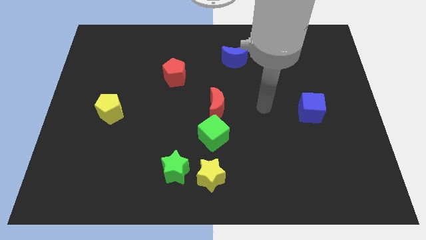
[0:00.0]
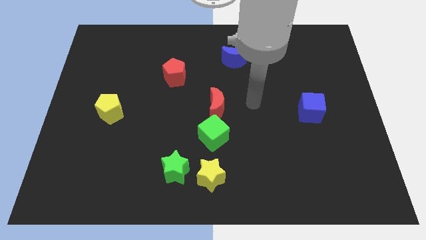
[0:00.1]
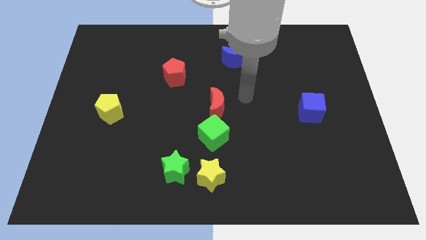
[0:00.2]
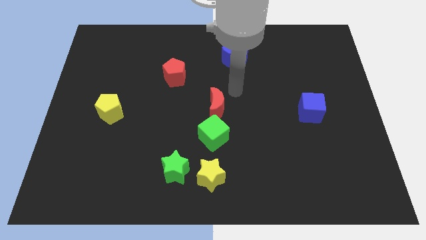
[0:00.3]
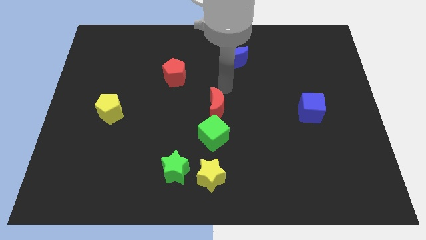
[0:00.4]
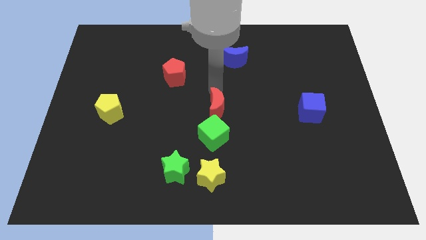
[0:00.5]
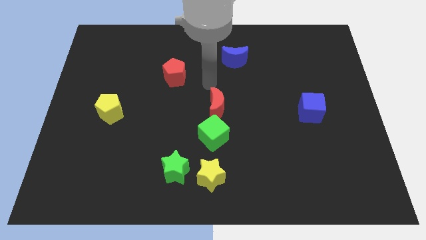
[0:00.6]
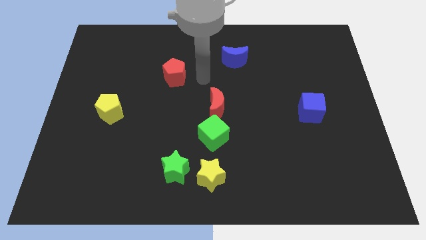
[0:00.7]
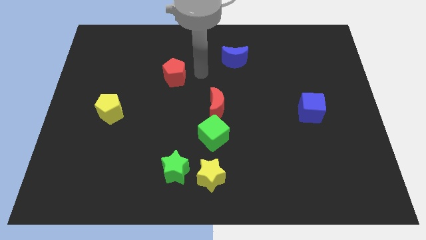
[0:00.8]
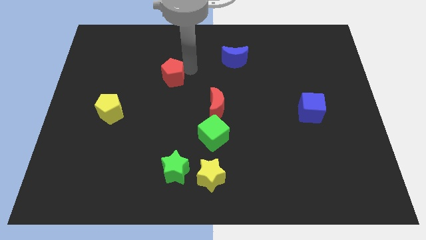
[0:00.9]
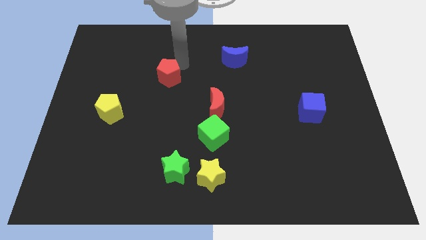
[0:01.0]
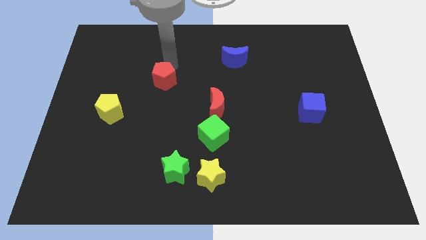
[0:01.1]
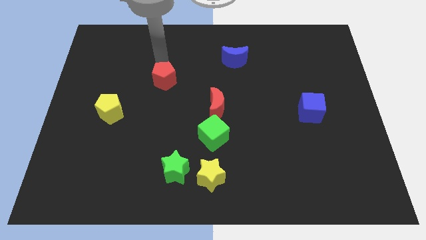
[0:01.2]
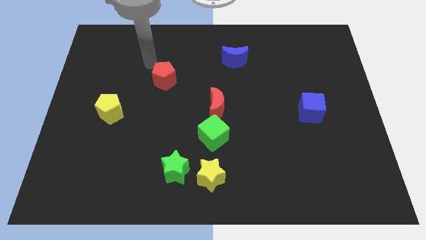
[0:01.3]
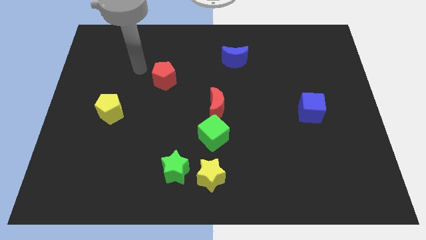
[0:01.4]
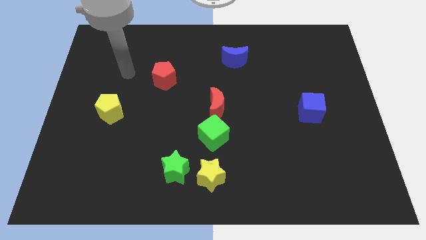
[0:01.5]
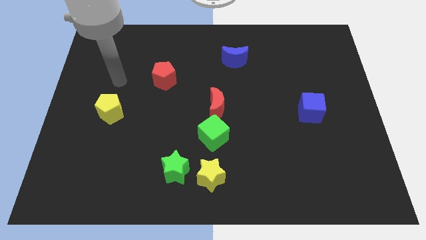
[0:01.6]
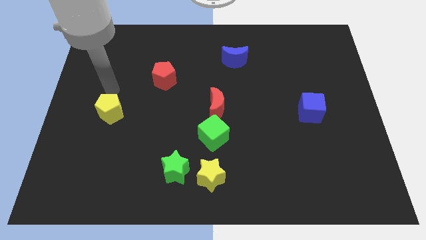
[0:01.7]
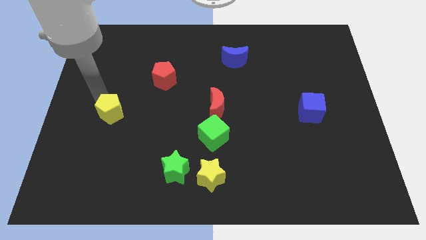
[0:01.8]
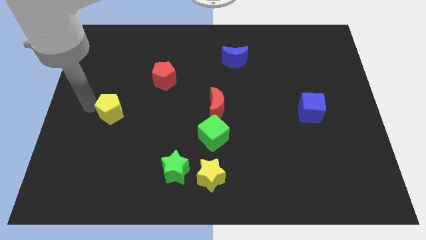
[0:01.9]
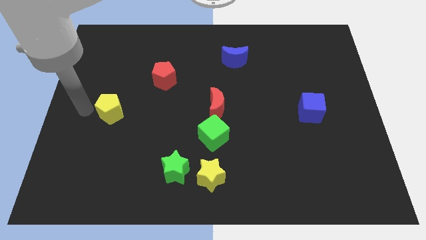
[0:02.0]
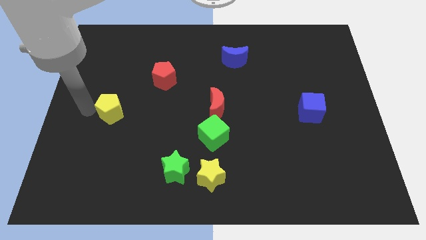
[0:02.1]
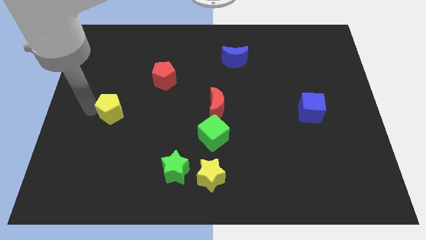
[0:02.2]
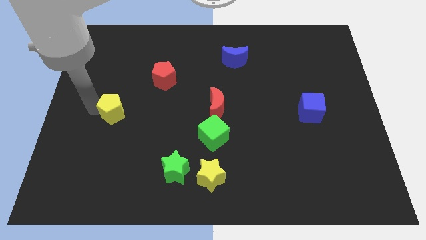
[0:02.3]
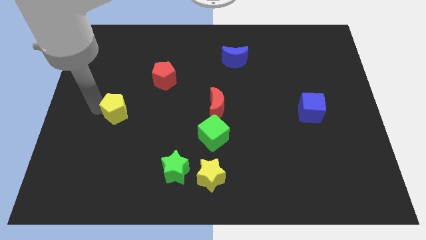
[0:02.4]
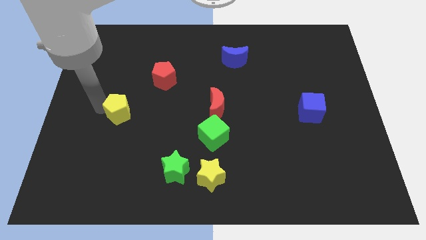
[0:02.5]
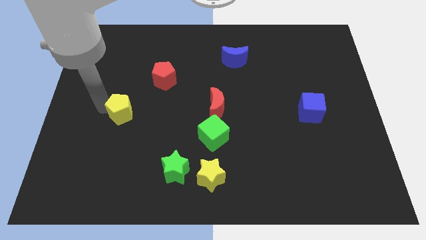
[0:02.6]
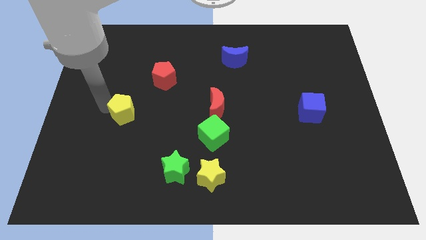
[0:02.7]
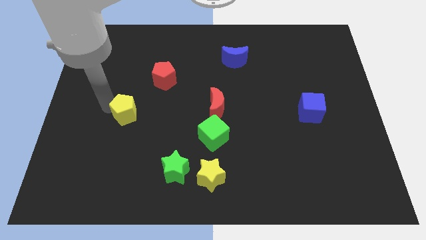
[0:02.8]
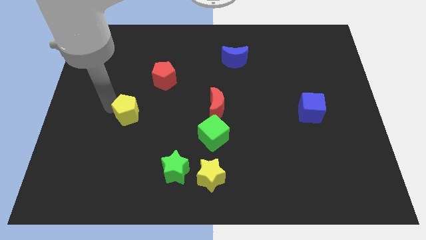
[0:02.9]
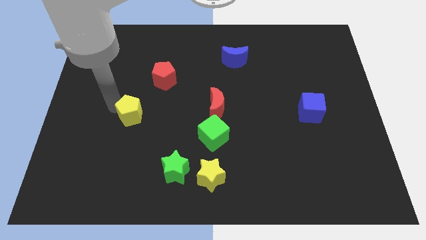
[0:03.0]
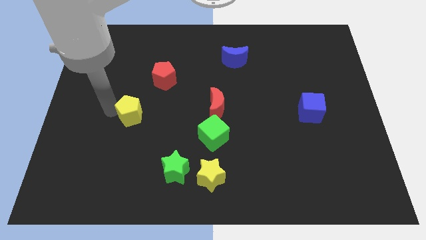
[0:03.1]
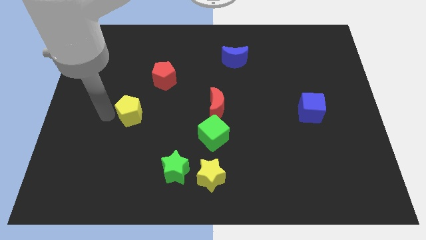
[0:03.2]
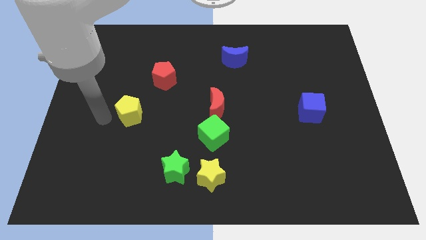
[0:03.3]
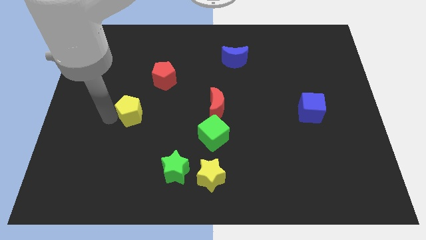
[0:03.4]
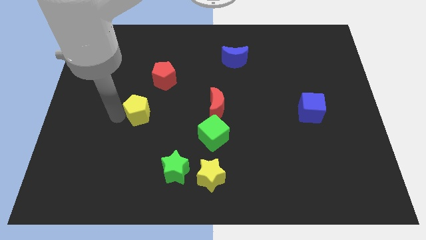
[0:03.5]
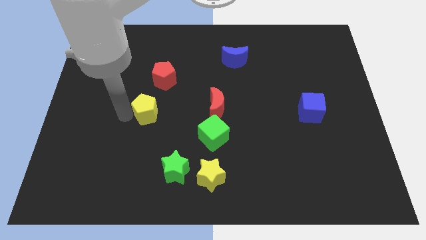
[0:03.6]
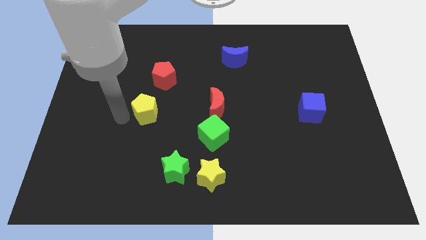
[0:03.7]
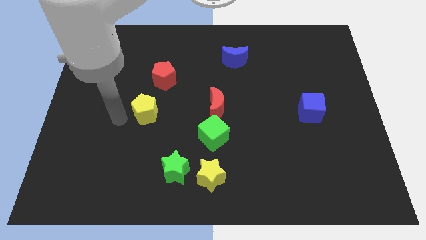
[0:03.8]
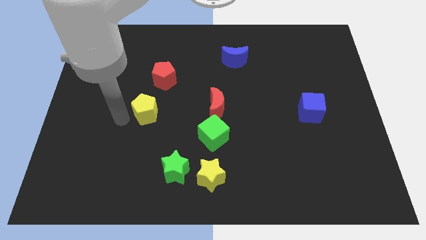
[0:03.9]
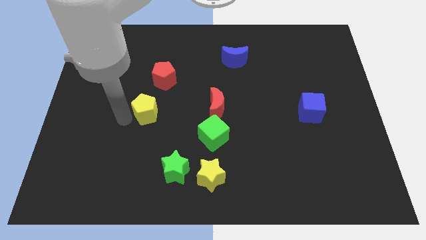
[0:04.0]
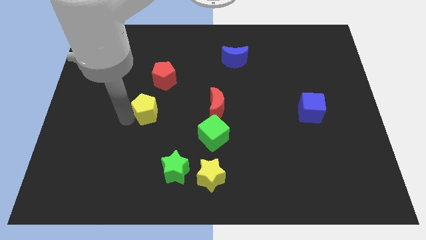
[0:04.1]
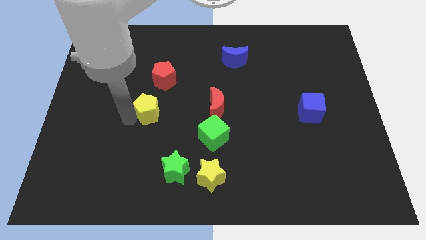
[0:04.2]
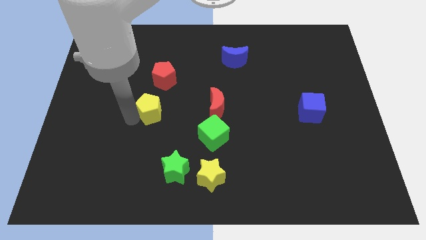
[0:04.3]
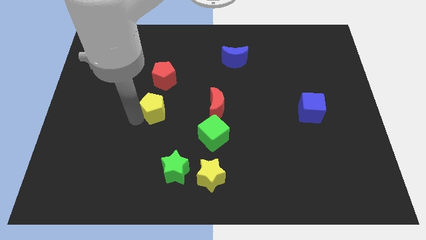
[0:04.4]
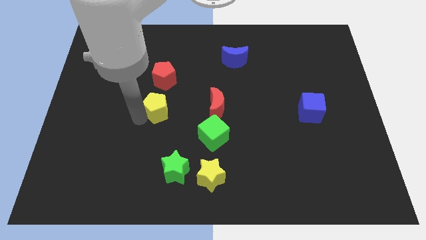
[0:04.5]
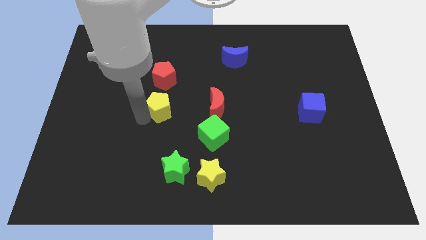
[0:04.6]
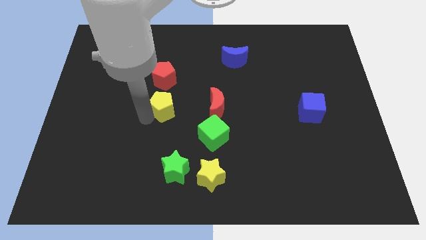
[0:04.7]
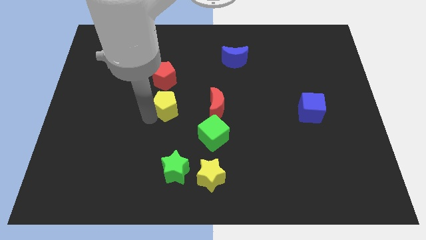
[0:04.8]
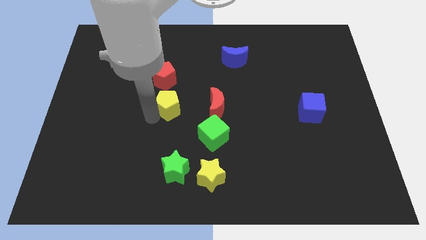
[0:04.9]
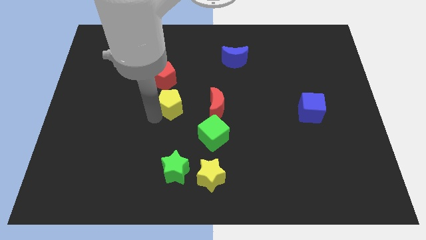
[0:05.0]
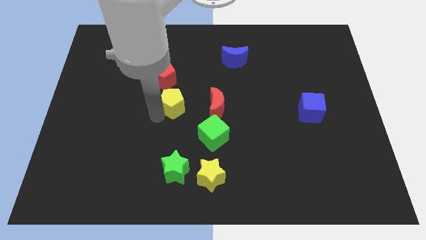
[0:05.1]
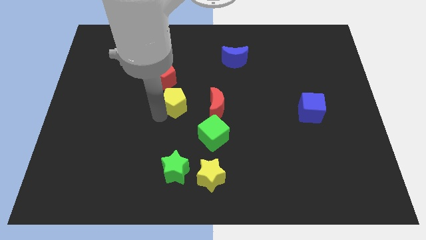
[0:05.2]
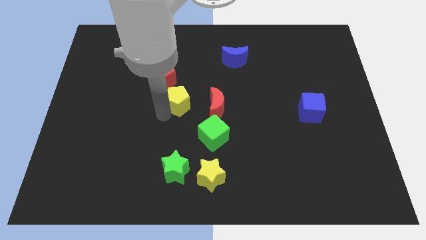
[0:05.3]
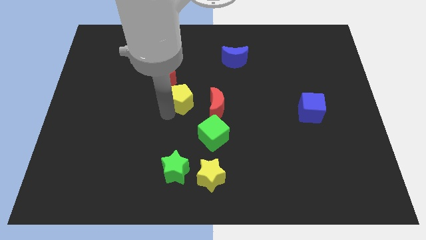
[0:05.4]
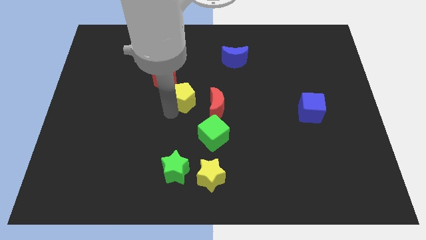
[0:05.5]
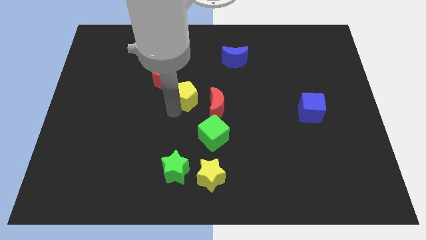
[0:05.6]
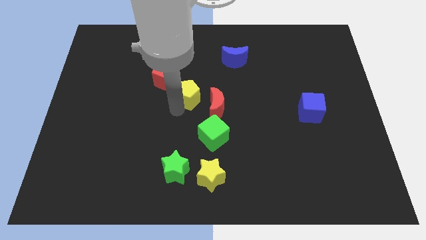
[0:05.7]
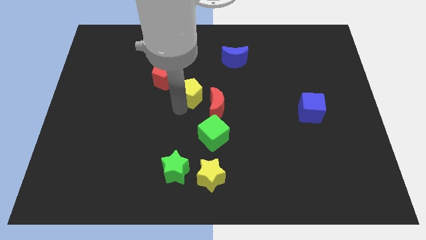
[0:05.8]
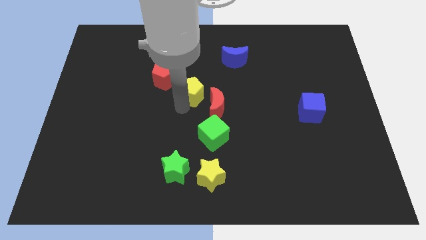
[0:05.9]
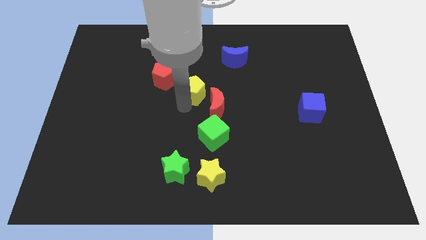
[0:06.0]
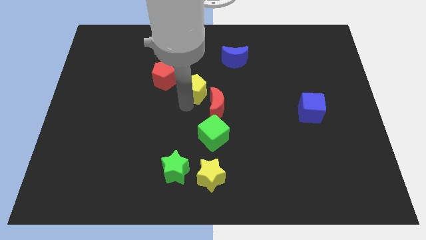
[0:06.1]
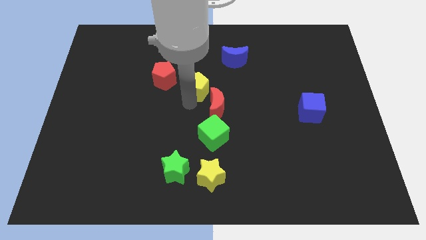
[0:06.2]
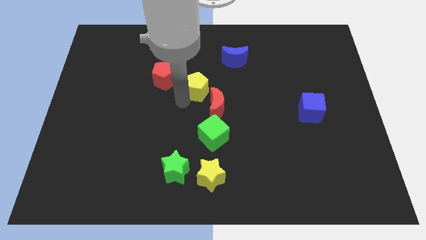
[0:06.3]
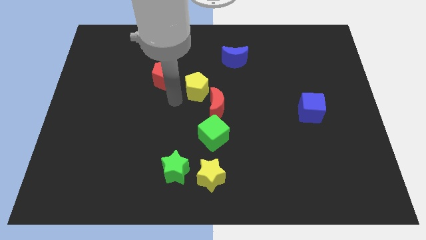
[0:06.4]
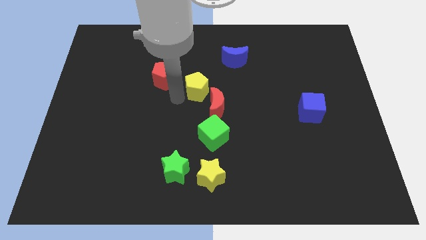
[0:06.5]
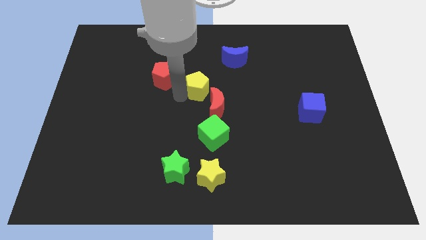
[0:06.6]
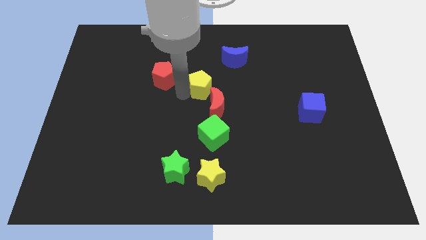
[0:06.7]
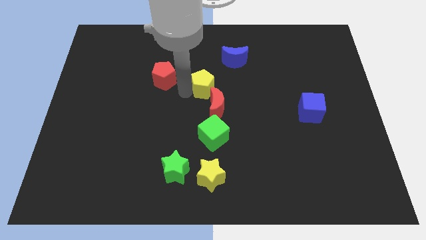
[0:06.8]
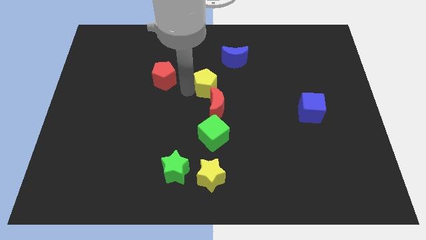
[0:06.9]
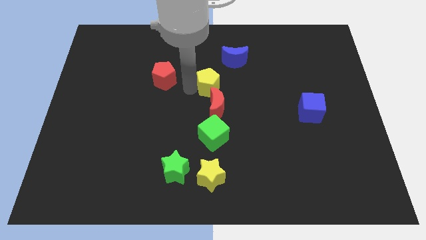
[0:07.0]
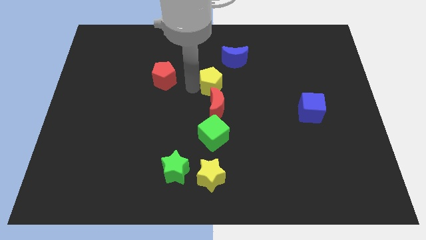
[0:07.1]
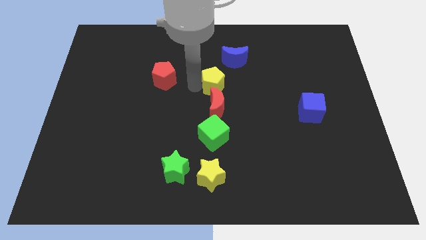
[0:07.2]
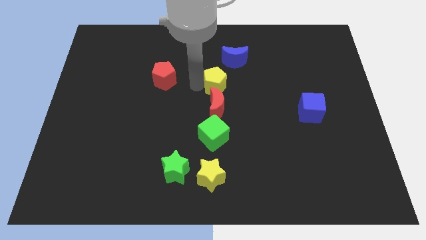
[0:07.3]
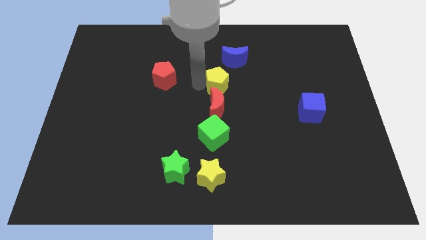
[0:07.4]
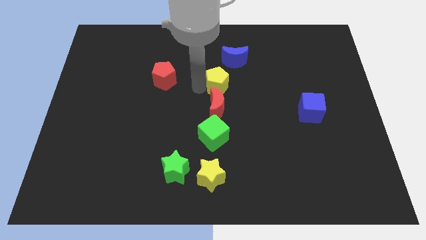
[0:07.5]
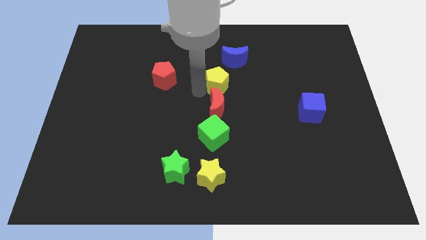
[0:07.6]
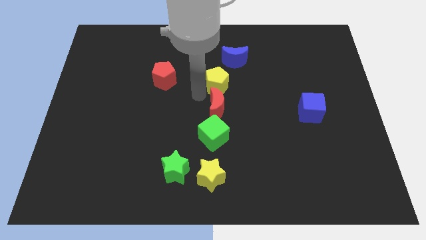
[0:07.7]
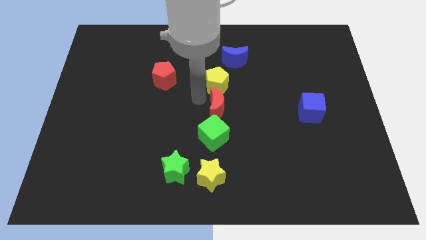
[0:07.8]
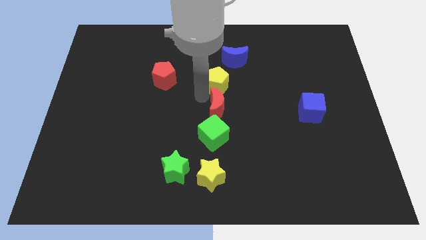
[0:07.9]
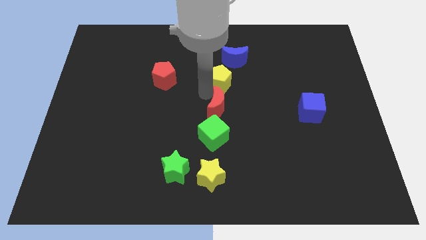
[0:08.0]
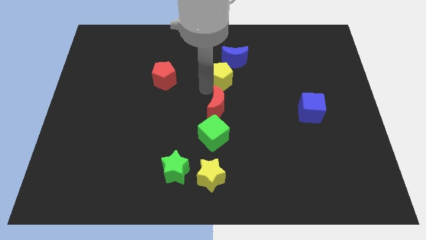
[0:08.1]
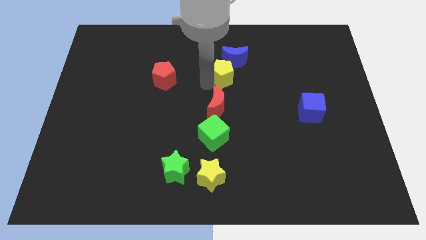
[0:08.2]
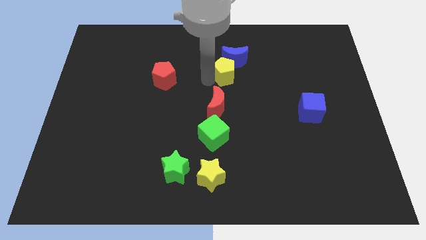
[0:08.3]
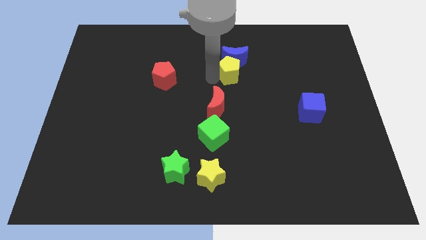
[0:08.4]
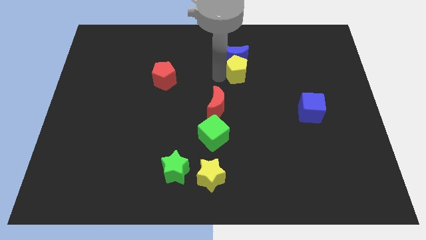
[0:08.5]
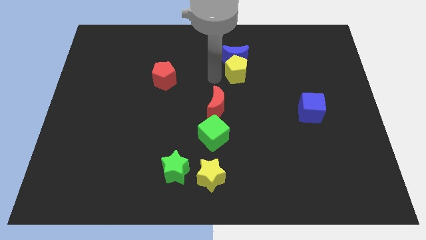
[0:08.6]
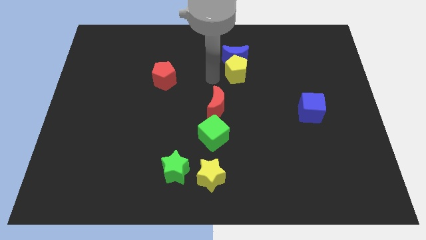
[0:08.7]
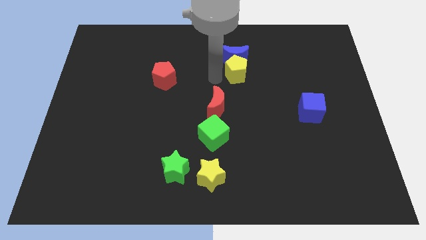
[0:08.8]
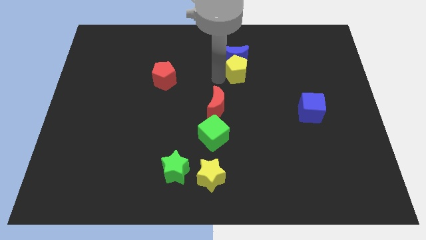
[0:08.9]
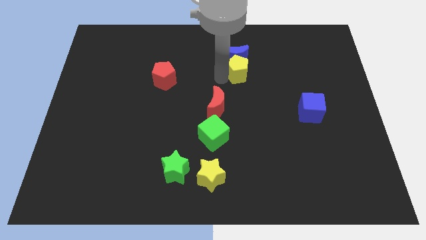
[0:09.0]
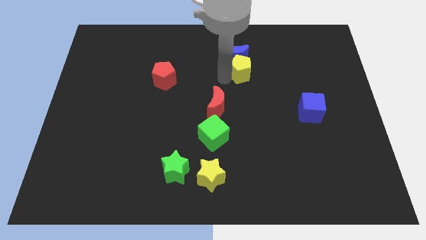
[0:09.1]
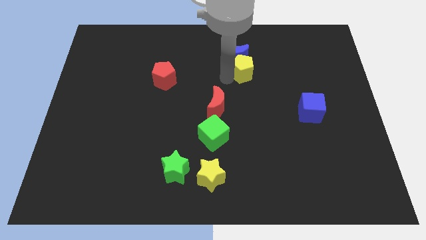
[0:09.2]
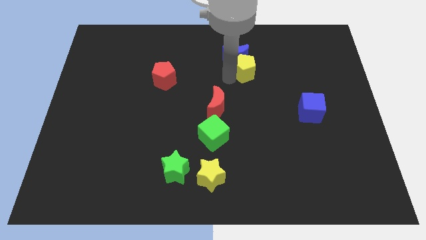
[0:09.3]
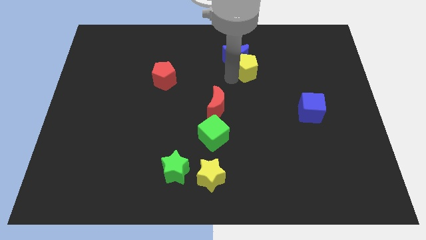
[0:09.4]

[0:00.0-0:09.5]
put the yellow pentagon to the right side of the blue moon
